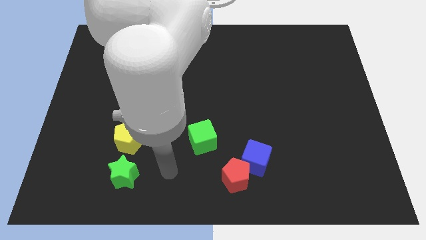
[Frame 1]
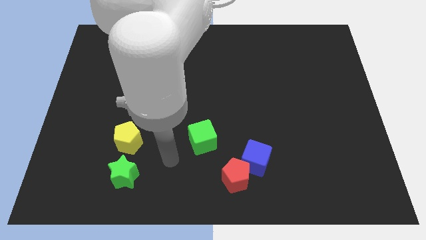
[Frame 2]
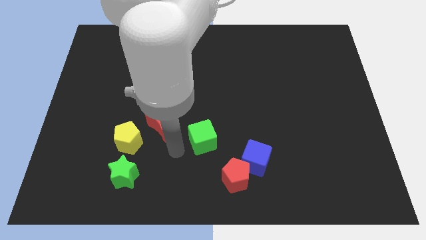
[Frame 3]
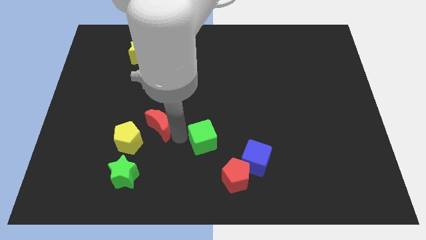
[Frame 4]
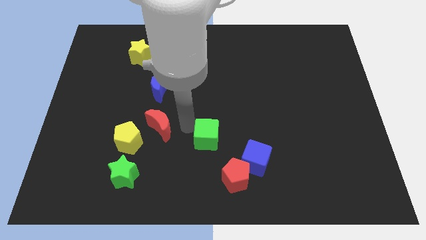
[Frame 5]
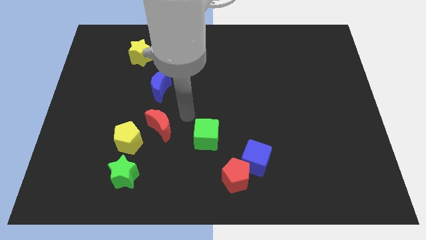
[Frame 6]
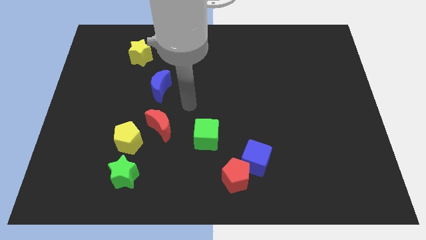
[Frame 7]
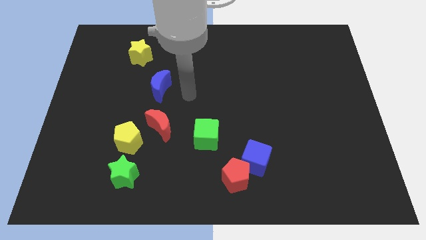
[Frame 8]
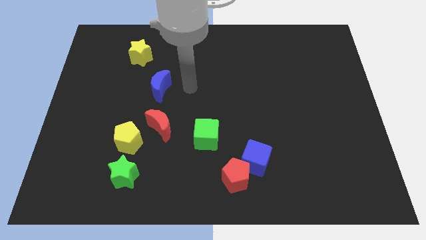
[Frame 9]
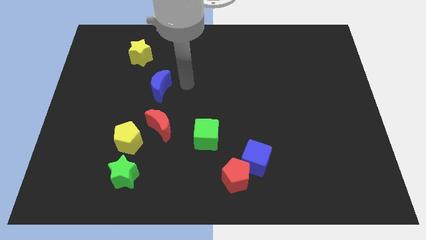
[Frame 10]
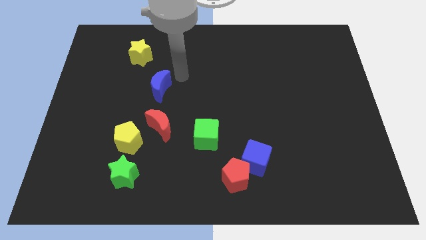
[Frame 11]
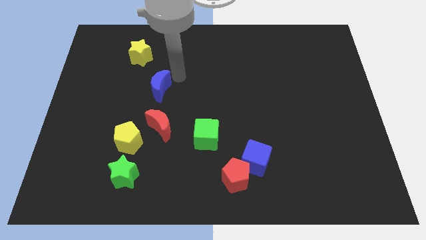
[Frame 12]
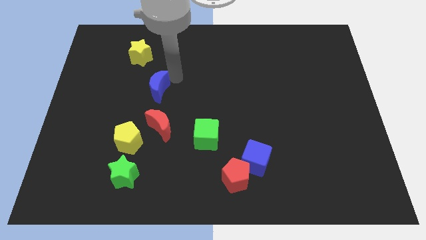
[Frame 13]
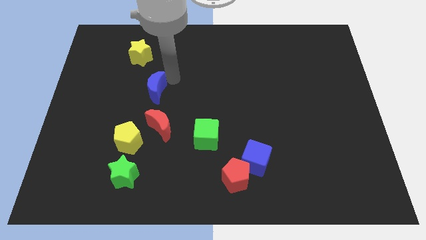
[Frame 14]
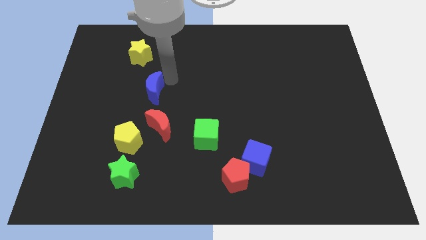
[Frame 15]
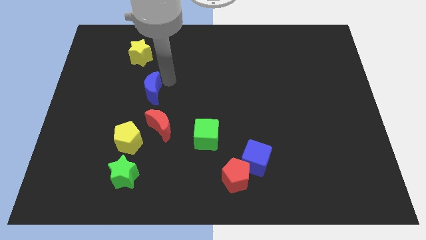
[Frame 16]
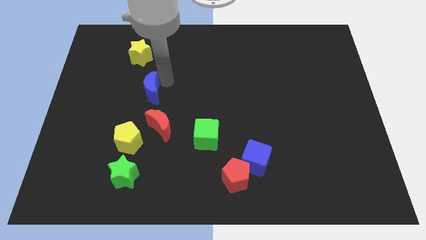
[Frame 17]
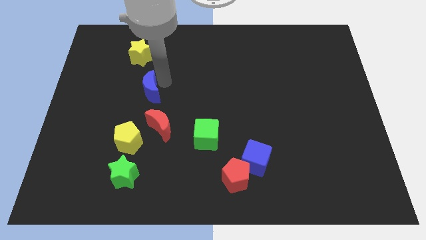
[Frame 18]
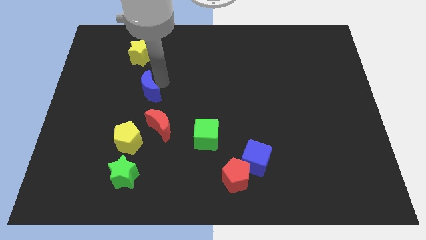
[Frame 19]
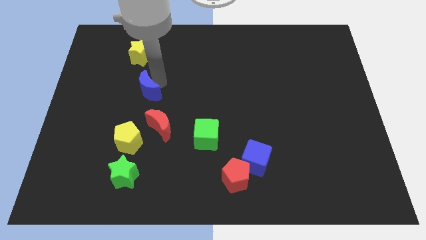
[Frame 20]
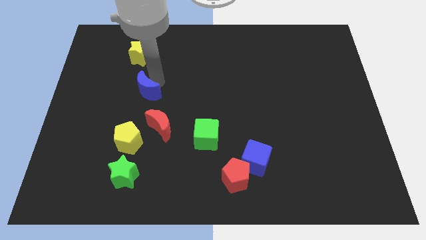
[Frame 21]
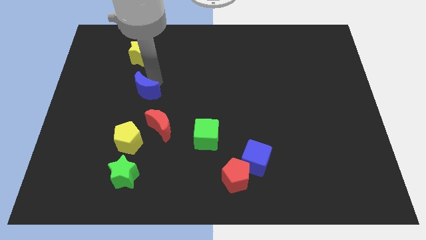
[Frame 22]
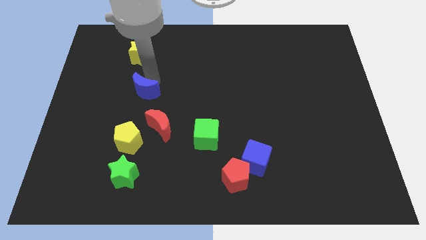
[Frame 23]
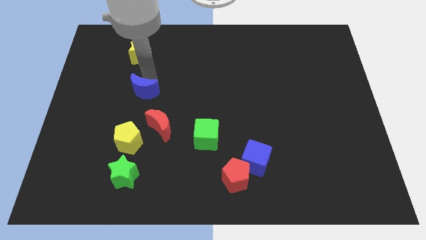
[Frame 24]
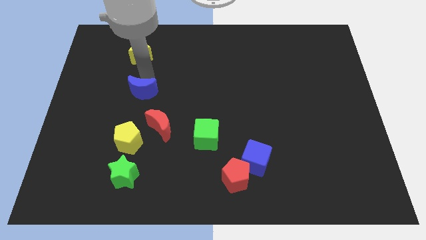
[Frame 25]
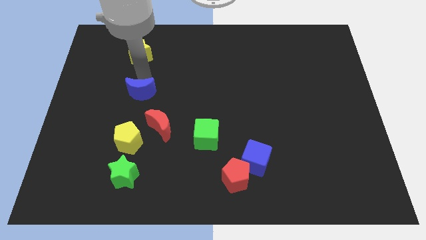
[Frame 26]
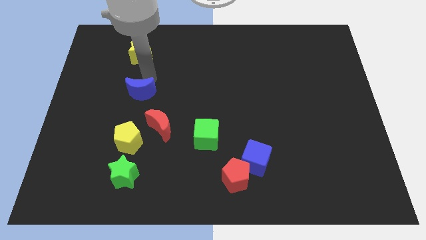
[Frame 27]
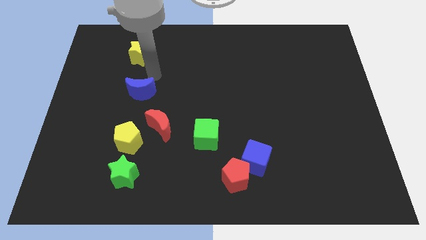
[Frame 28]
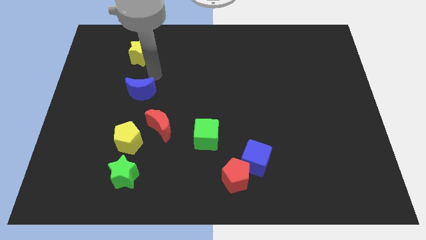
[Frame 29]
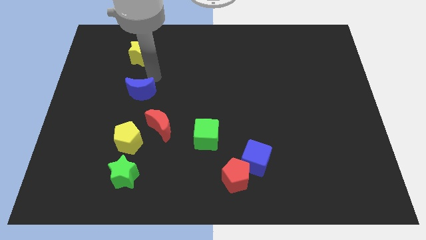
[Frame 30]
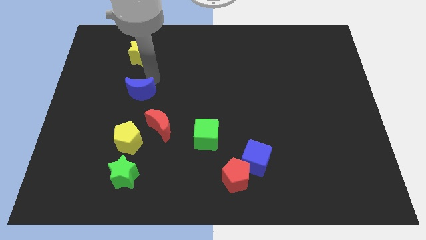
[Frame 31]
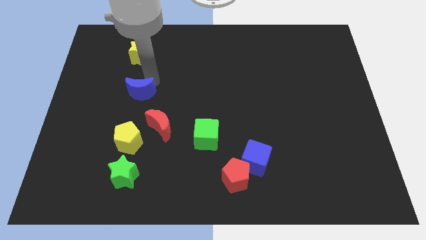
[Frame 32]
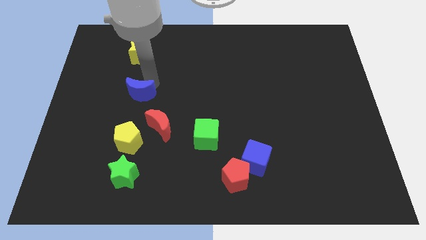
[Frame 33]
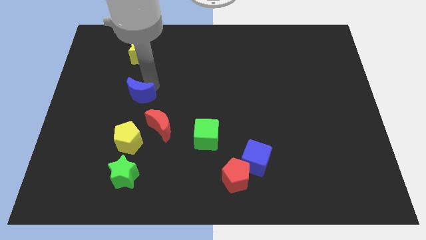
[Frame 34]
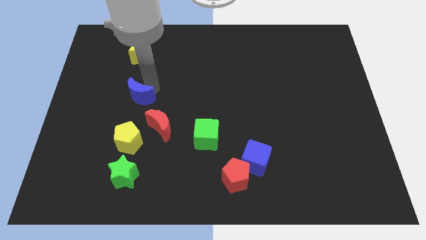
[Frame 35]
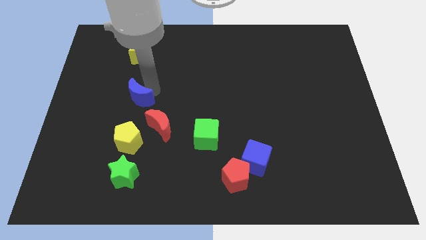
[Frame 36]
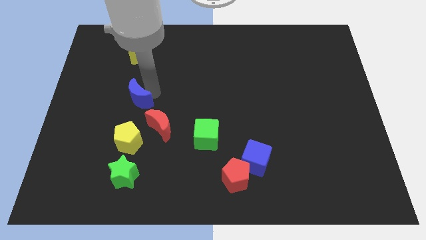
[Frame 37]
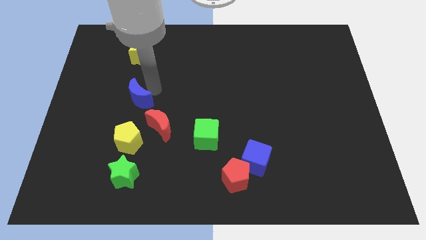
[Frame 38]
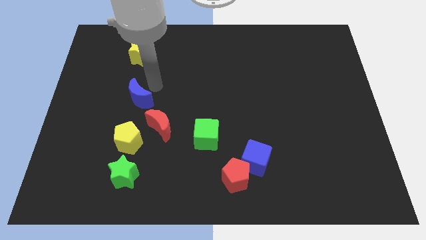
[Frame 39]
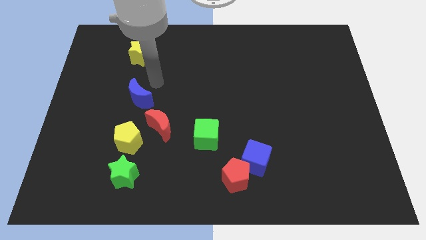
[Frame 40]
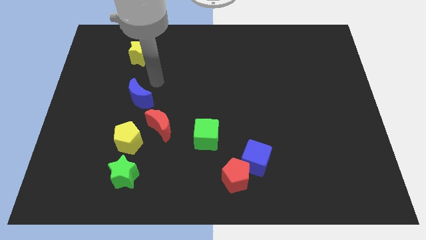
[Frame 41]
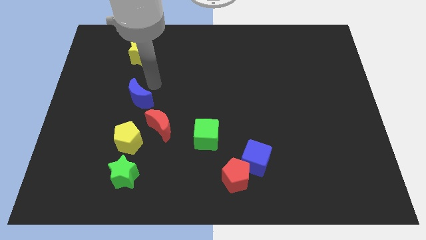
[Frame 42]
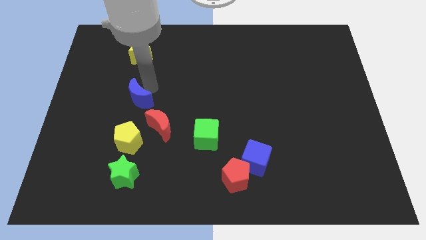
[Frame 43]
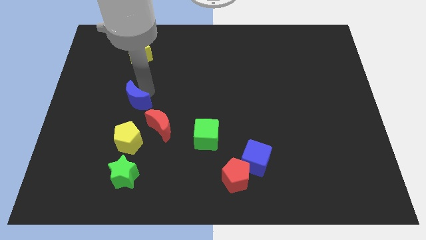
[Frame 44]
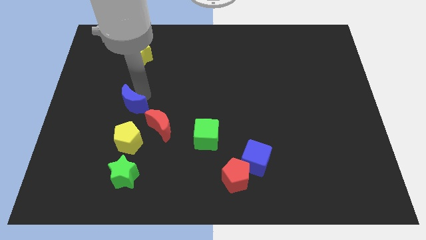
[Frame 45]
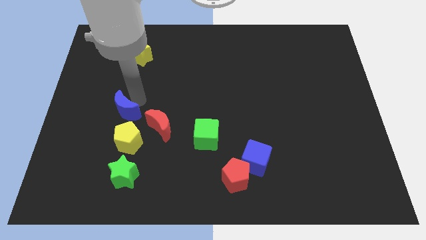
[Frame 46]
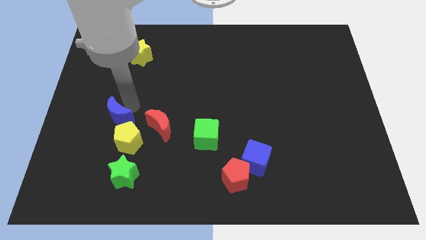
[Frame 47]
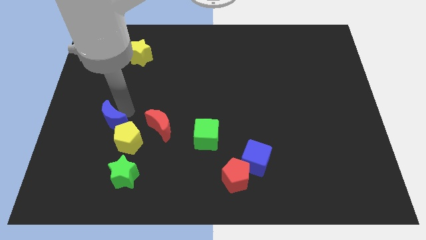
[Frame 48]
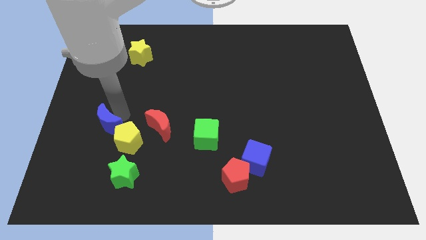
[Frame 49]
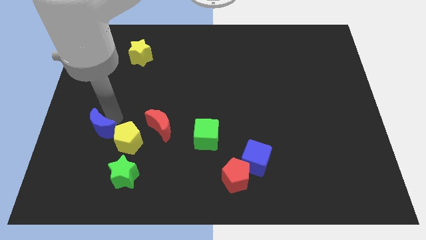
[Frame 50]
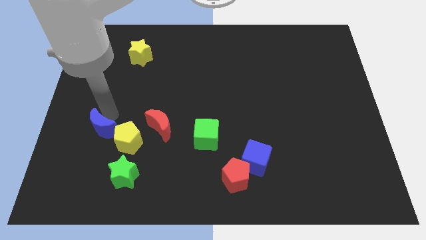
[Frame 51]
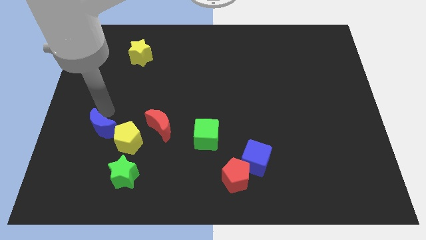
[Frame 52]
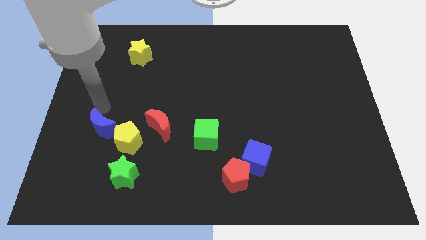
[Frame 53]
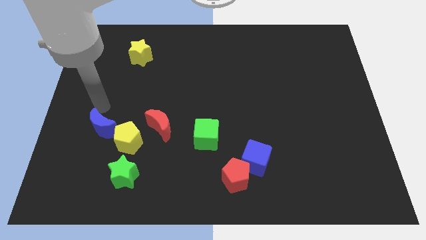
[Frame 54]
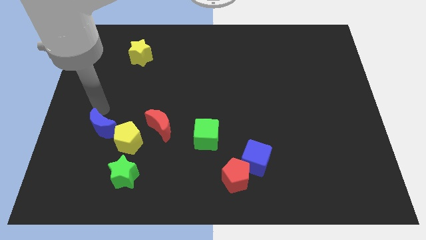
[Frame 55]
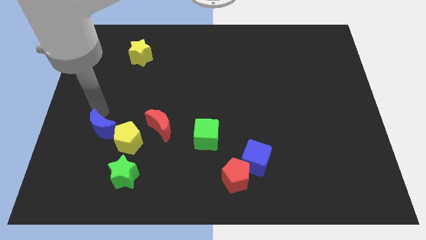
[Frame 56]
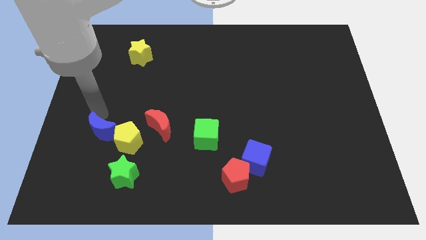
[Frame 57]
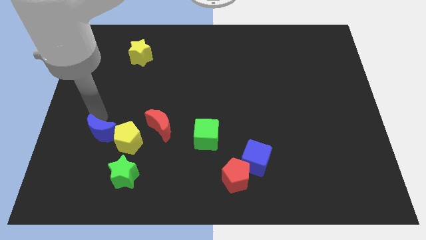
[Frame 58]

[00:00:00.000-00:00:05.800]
slide the blue moon to the top left of the green star

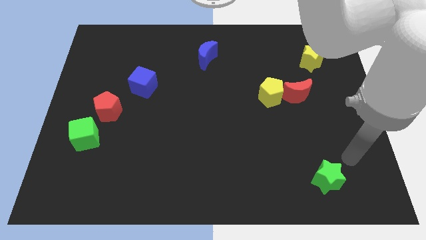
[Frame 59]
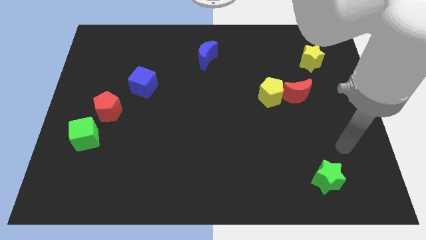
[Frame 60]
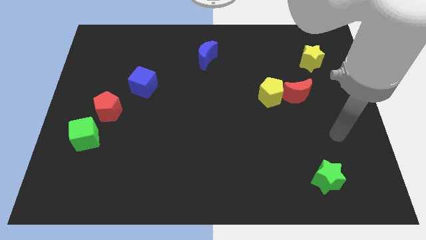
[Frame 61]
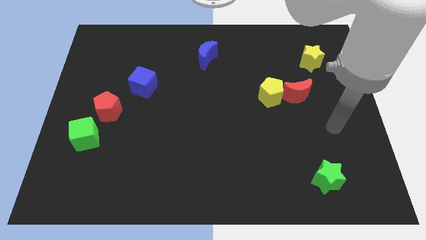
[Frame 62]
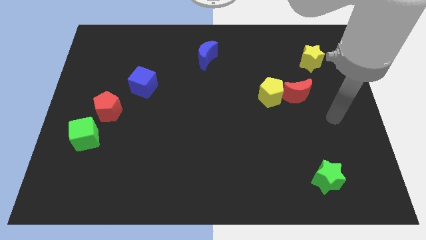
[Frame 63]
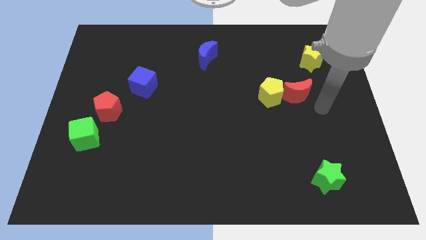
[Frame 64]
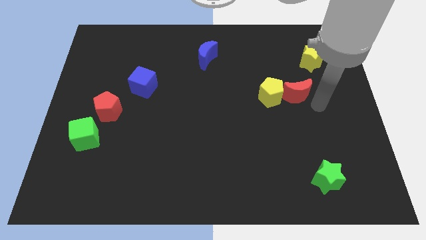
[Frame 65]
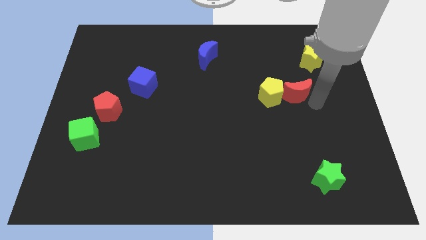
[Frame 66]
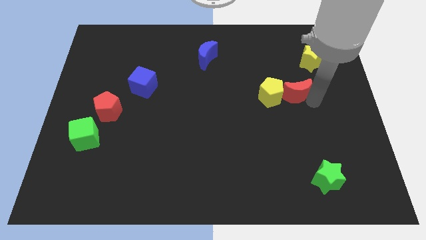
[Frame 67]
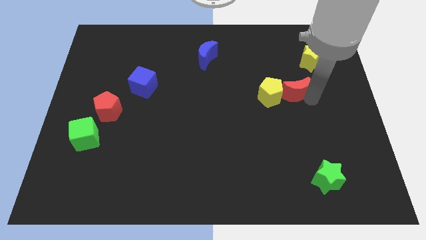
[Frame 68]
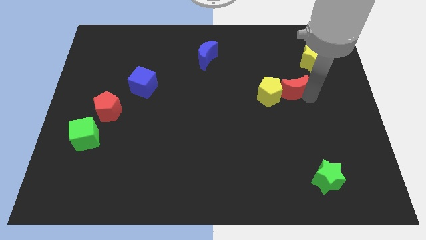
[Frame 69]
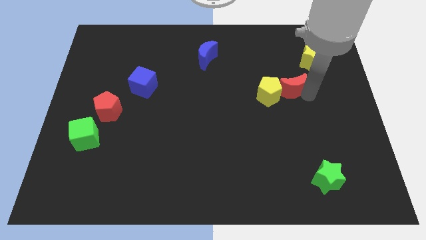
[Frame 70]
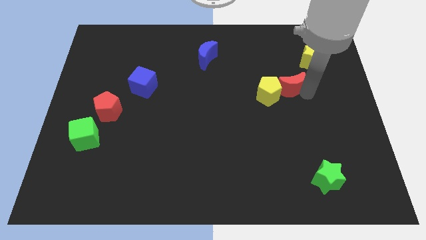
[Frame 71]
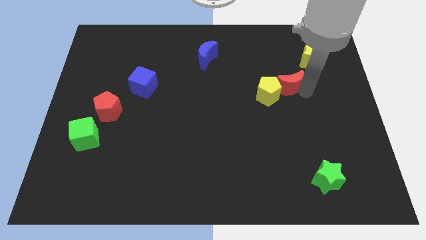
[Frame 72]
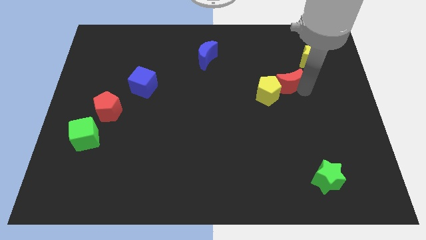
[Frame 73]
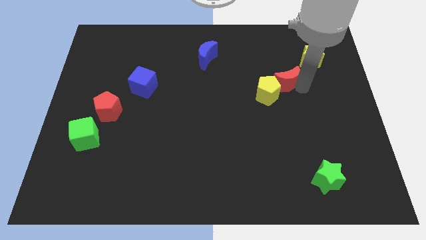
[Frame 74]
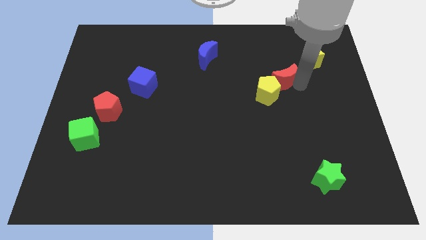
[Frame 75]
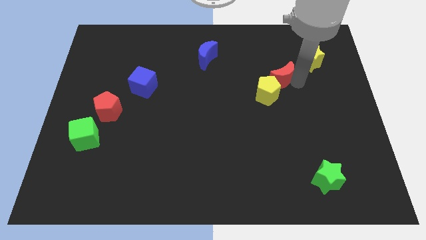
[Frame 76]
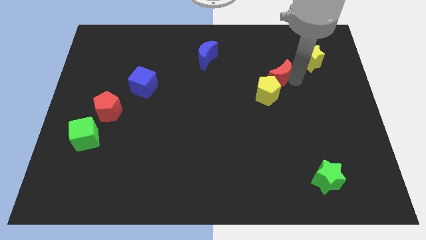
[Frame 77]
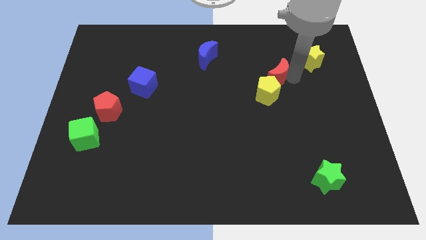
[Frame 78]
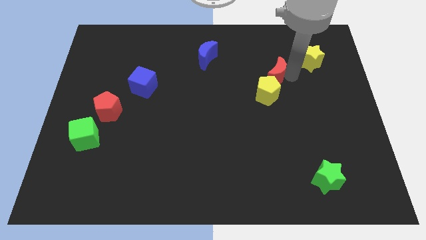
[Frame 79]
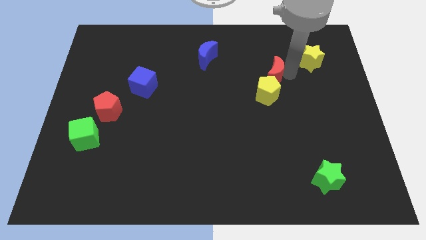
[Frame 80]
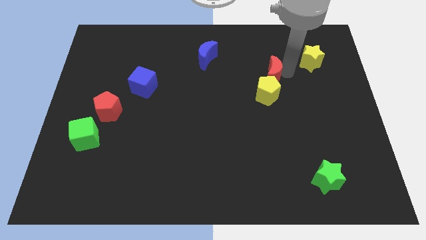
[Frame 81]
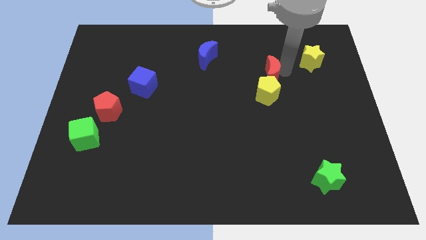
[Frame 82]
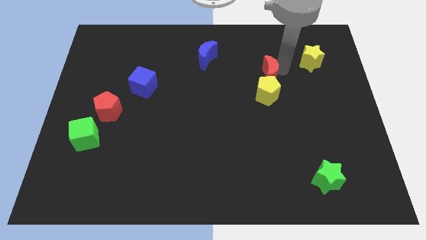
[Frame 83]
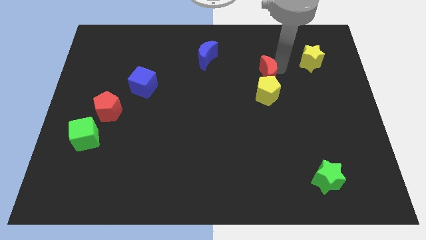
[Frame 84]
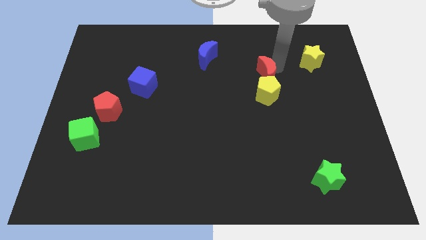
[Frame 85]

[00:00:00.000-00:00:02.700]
put the red moon to the top left side of the yellow pentagon
